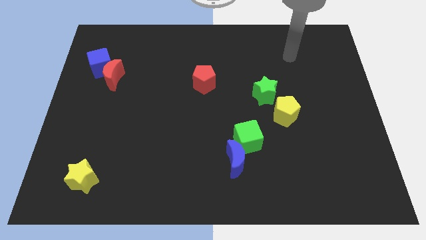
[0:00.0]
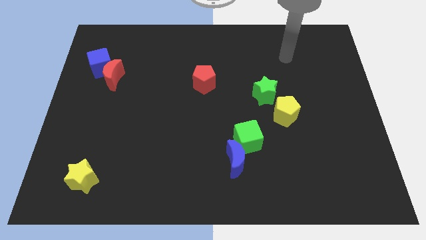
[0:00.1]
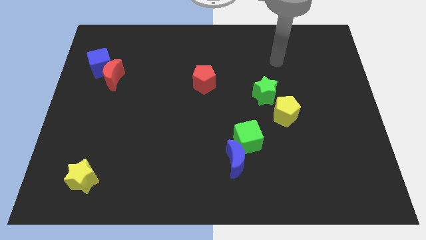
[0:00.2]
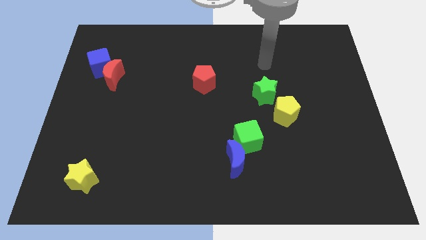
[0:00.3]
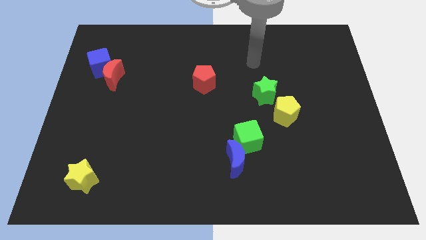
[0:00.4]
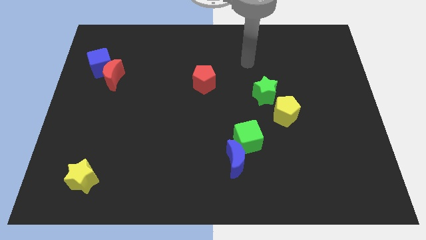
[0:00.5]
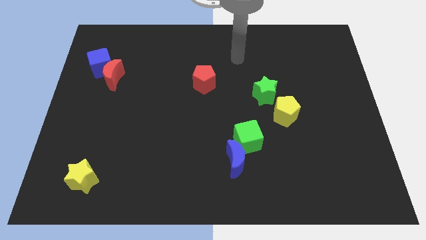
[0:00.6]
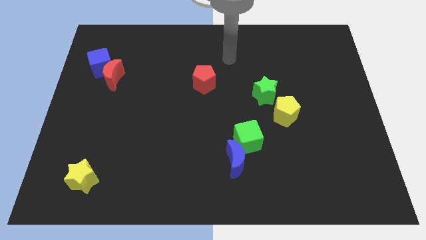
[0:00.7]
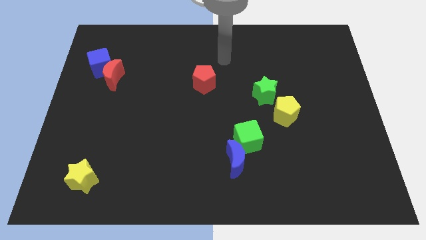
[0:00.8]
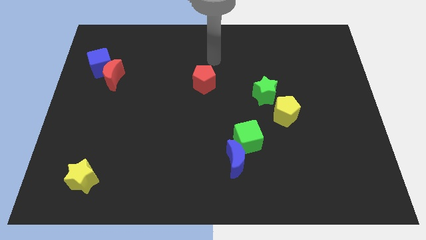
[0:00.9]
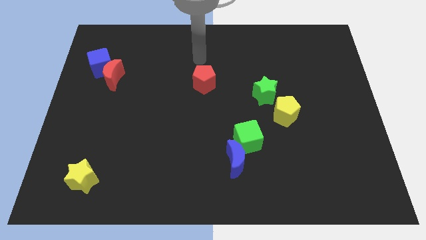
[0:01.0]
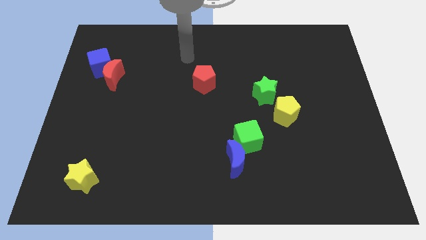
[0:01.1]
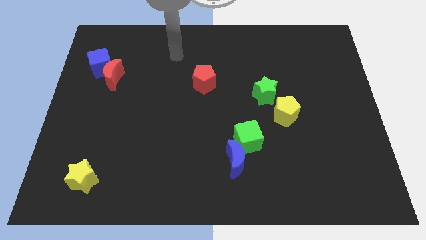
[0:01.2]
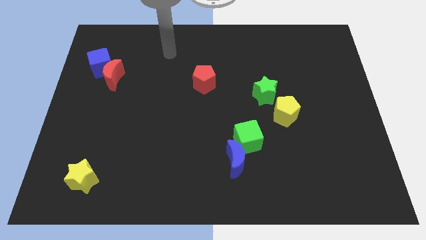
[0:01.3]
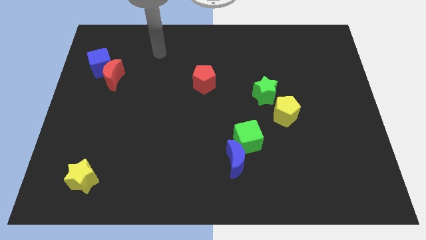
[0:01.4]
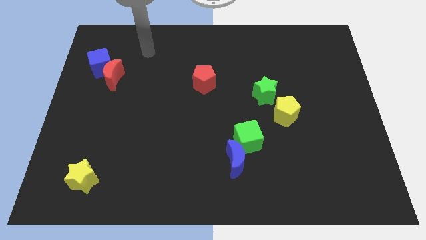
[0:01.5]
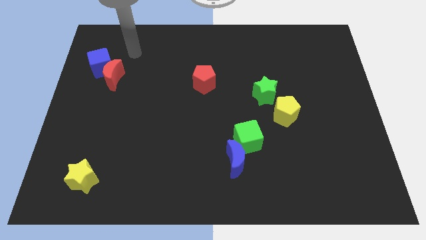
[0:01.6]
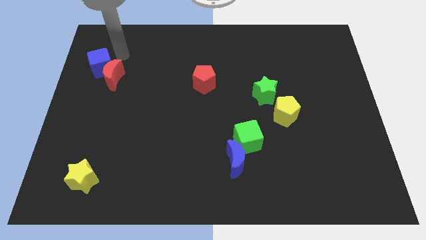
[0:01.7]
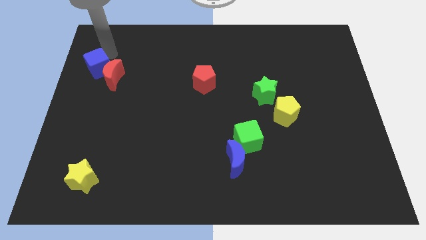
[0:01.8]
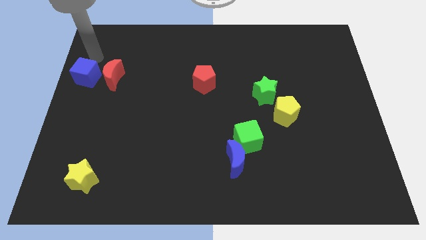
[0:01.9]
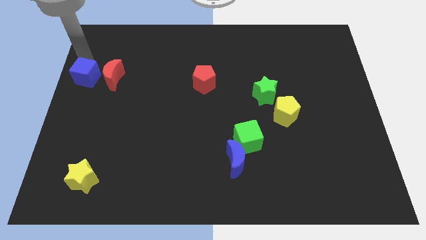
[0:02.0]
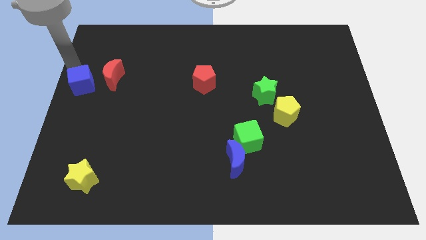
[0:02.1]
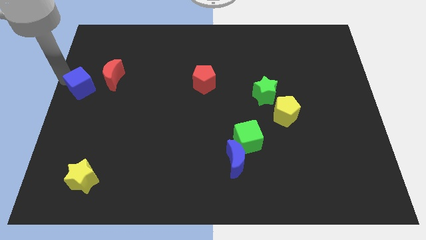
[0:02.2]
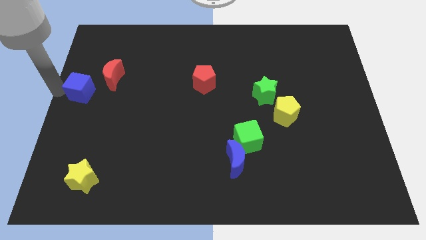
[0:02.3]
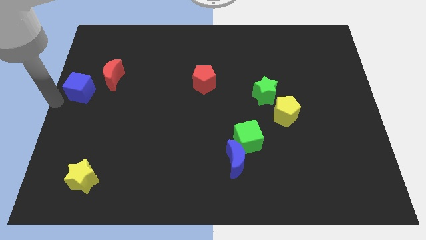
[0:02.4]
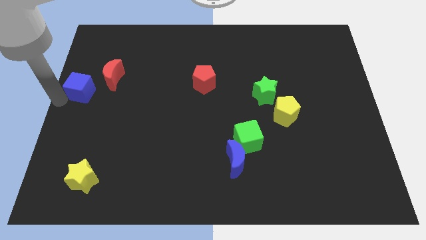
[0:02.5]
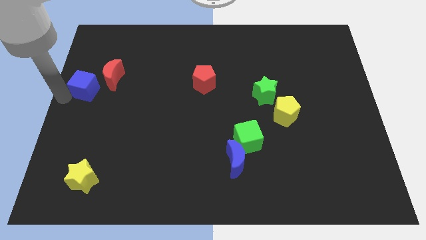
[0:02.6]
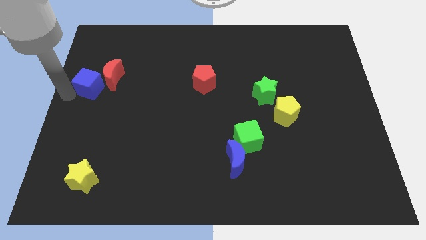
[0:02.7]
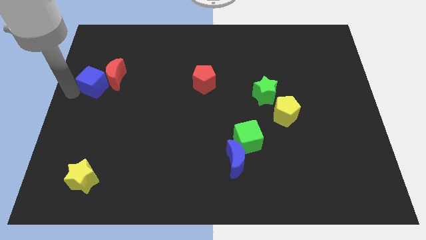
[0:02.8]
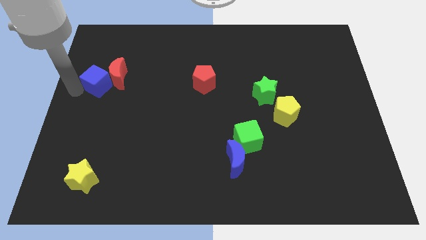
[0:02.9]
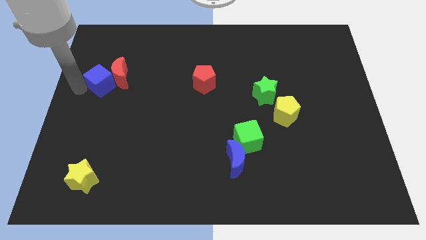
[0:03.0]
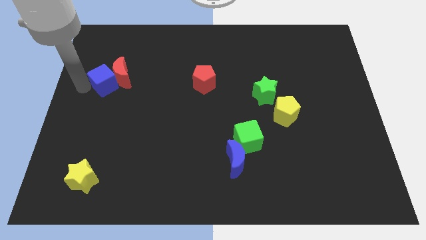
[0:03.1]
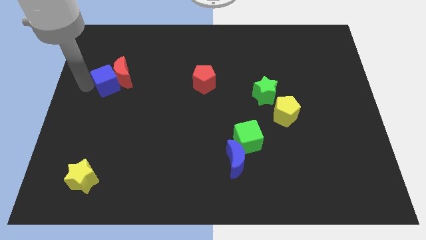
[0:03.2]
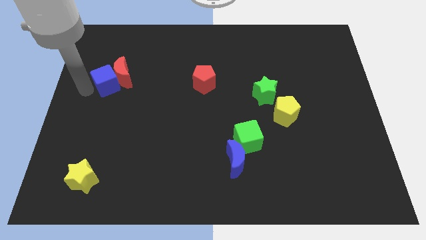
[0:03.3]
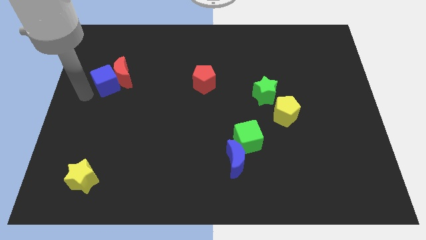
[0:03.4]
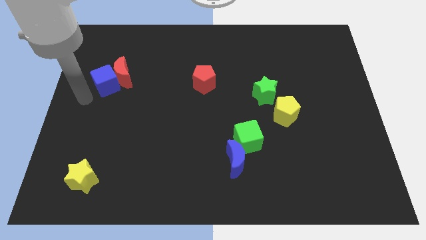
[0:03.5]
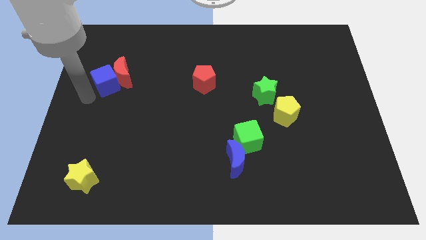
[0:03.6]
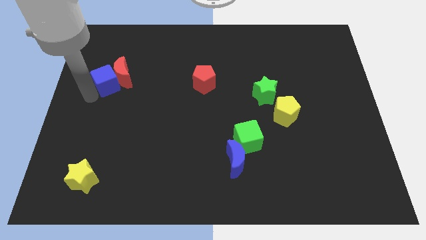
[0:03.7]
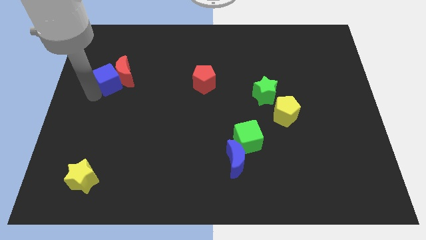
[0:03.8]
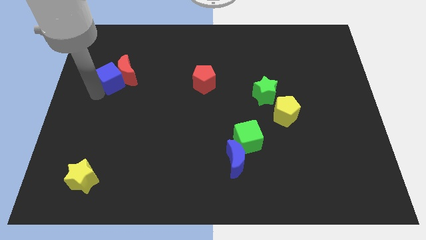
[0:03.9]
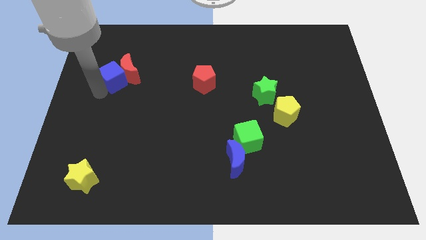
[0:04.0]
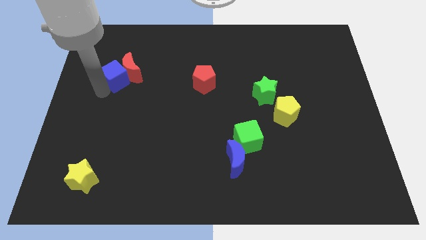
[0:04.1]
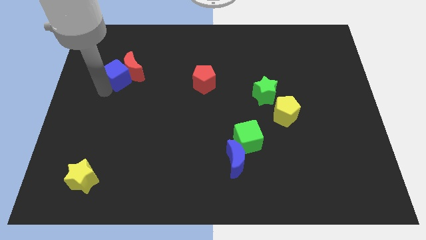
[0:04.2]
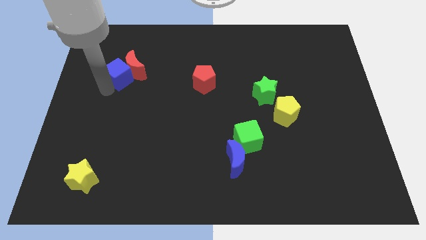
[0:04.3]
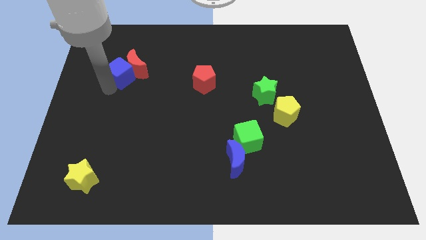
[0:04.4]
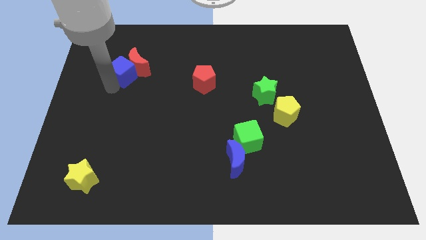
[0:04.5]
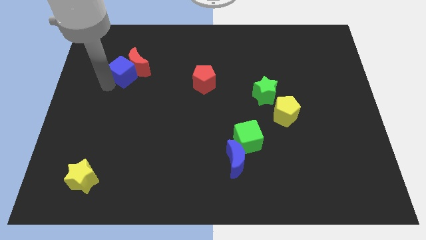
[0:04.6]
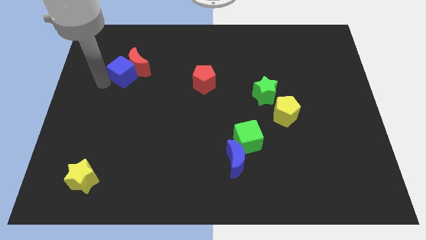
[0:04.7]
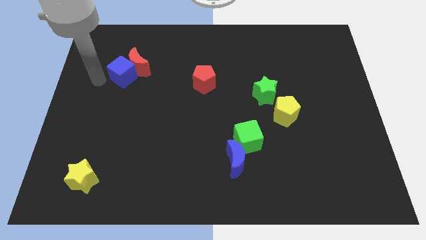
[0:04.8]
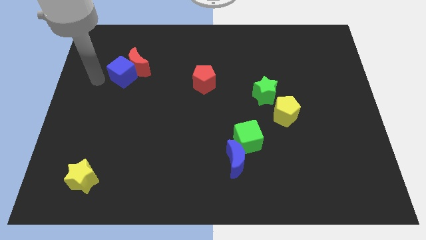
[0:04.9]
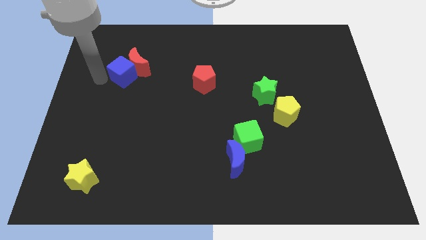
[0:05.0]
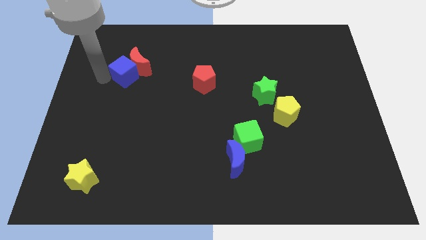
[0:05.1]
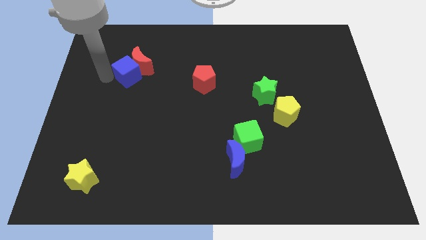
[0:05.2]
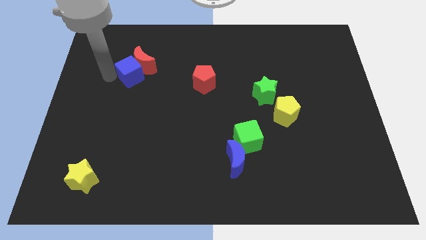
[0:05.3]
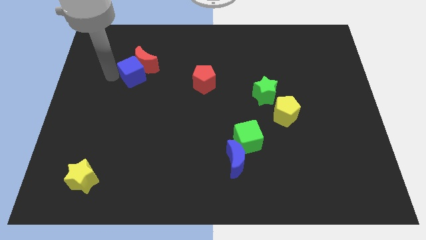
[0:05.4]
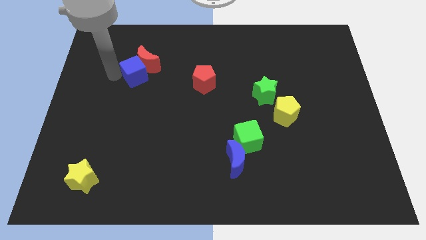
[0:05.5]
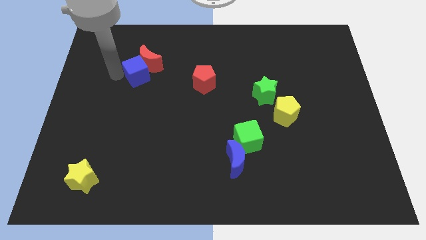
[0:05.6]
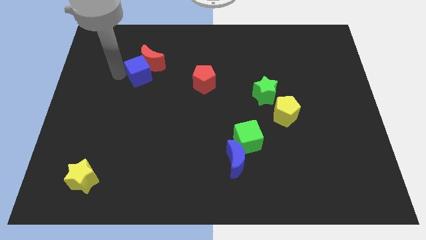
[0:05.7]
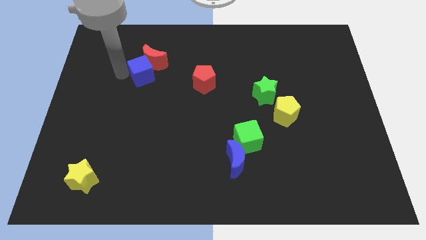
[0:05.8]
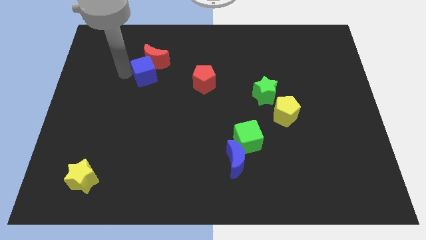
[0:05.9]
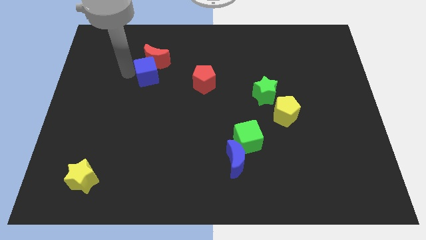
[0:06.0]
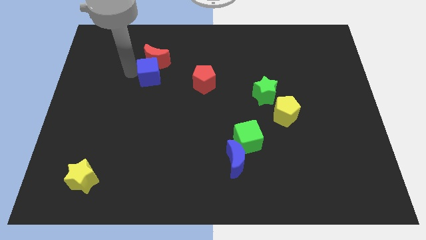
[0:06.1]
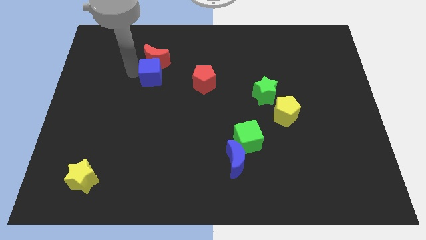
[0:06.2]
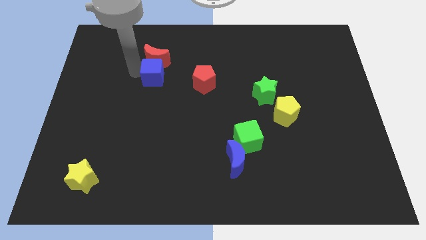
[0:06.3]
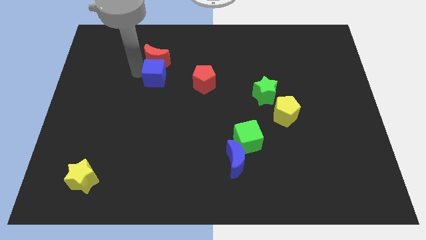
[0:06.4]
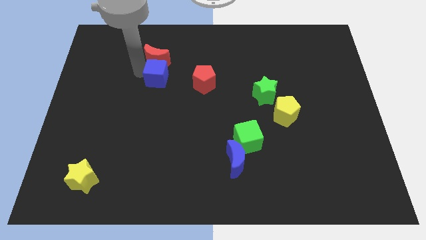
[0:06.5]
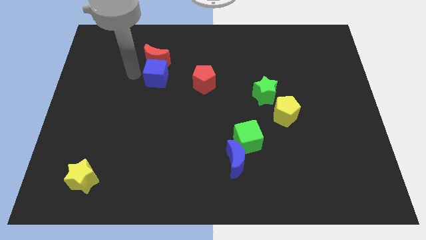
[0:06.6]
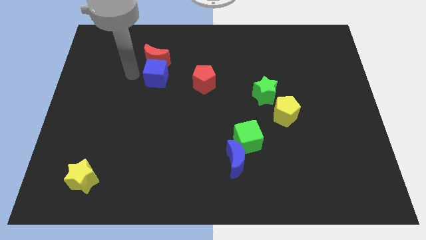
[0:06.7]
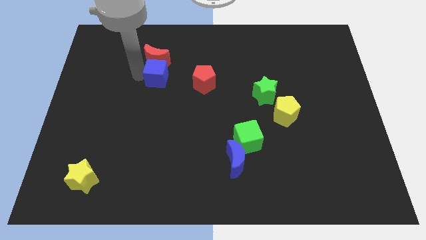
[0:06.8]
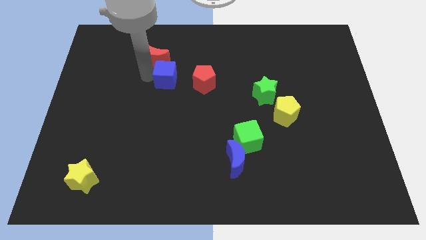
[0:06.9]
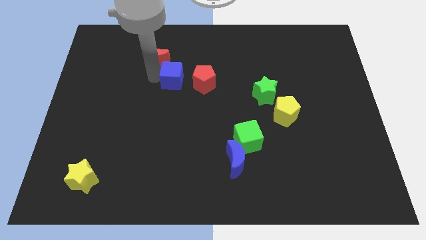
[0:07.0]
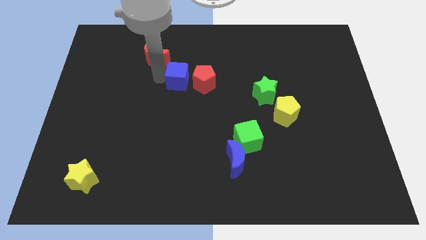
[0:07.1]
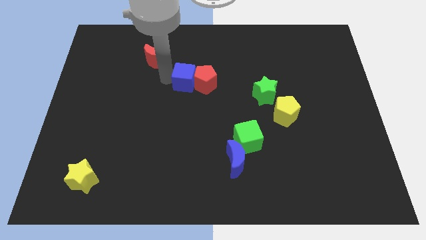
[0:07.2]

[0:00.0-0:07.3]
push the blue cube close to the red pentagon
